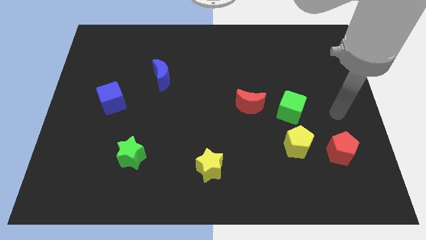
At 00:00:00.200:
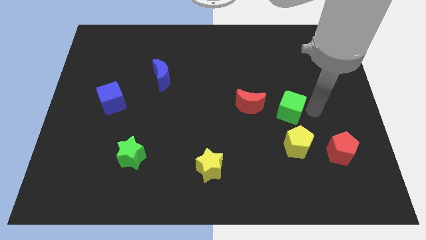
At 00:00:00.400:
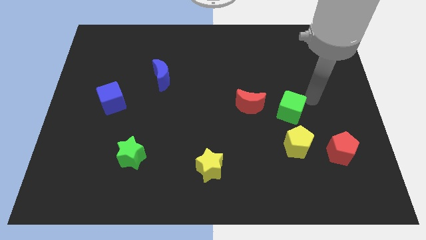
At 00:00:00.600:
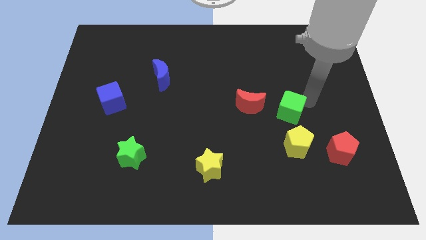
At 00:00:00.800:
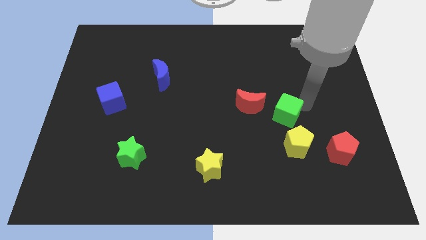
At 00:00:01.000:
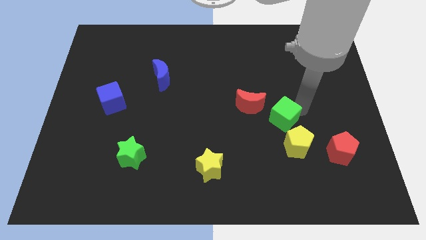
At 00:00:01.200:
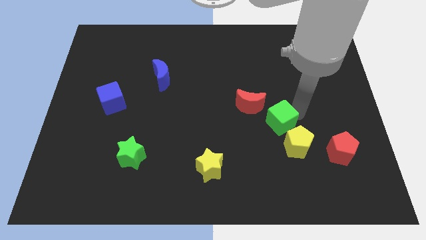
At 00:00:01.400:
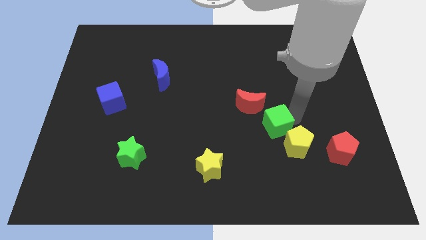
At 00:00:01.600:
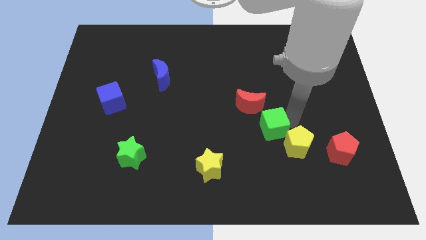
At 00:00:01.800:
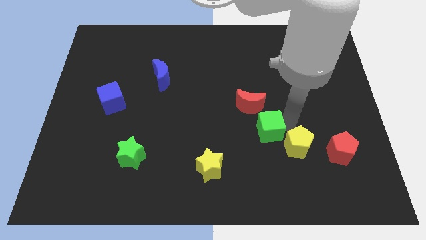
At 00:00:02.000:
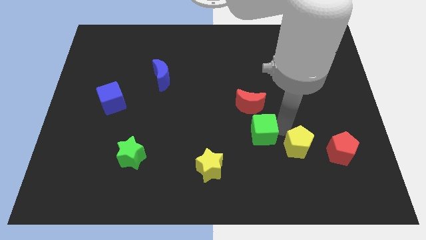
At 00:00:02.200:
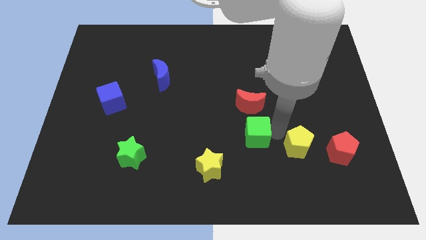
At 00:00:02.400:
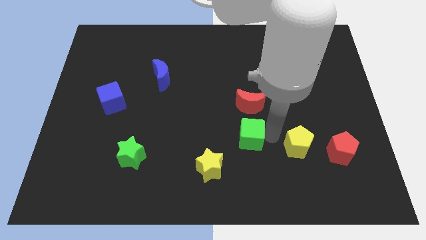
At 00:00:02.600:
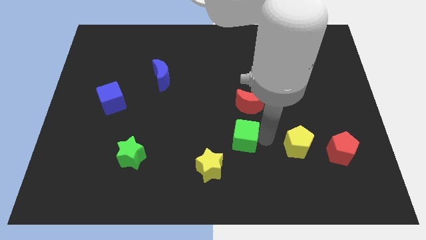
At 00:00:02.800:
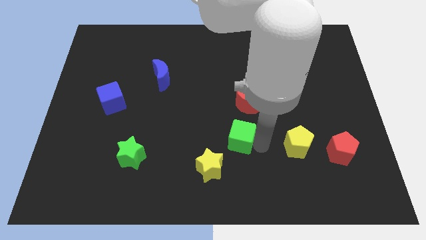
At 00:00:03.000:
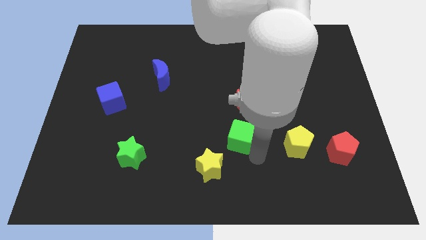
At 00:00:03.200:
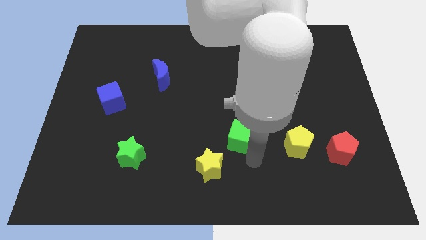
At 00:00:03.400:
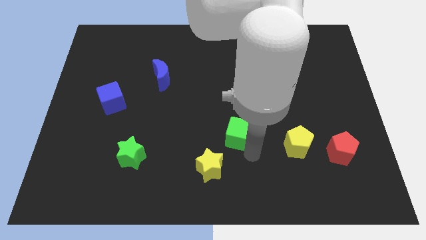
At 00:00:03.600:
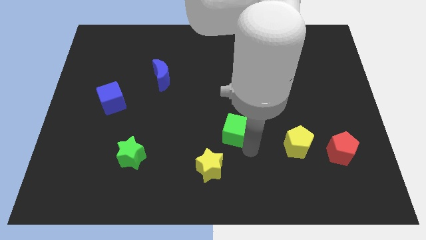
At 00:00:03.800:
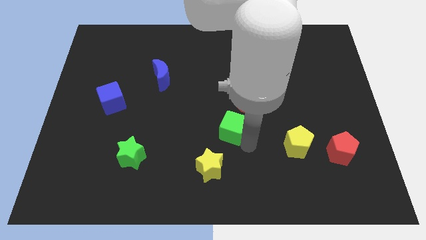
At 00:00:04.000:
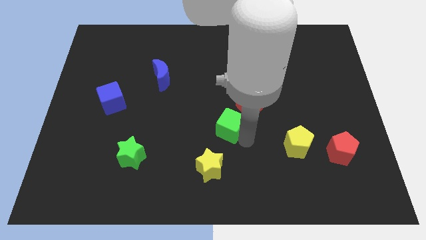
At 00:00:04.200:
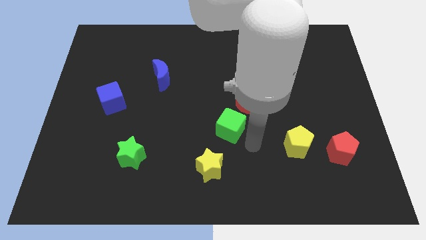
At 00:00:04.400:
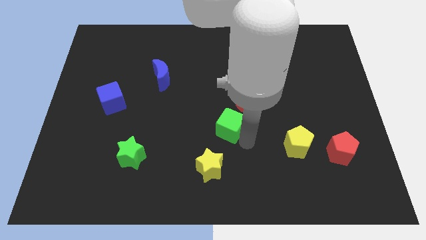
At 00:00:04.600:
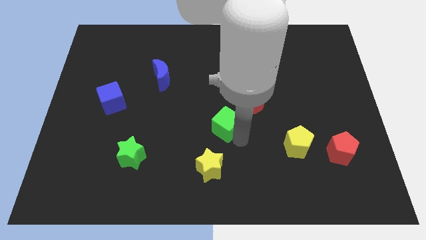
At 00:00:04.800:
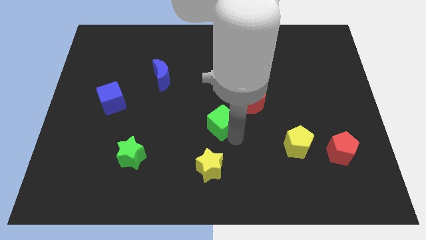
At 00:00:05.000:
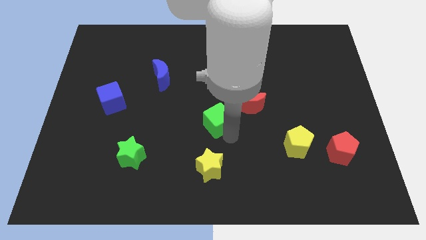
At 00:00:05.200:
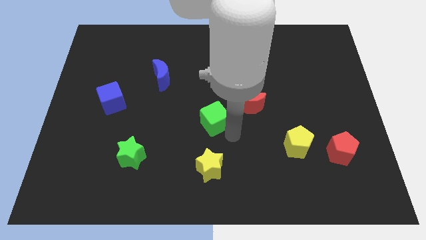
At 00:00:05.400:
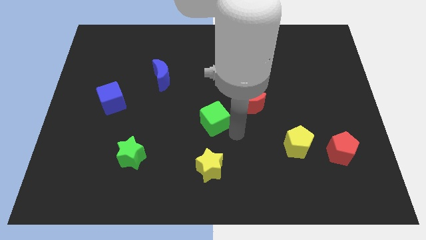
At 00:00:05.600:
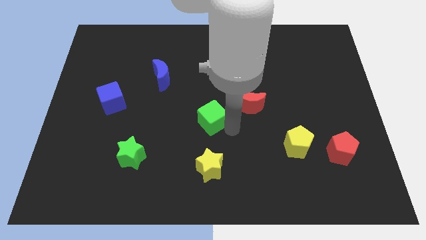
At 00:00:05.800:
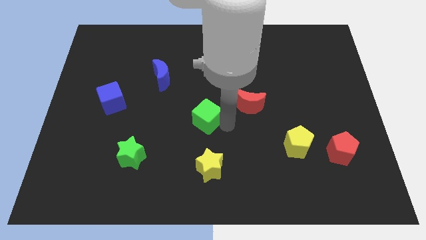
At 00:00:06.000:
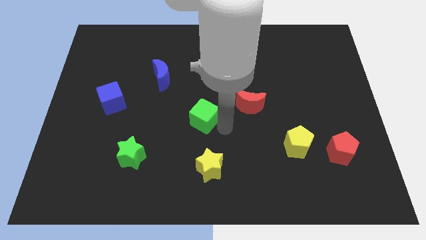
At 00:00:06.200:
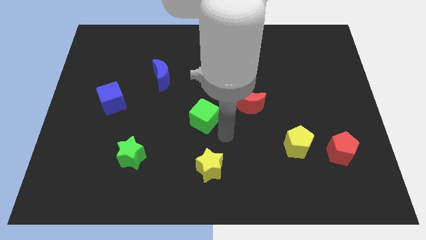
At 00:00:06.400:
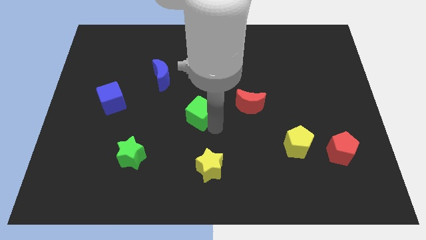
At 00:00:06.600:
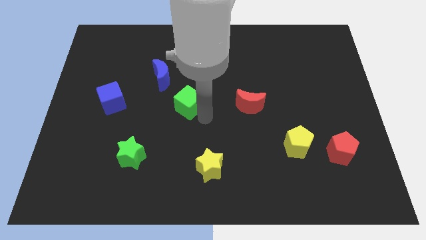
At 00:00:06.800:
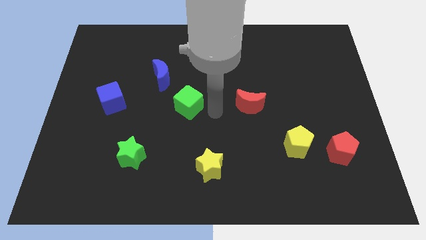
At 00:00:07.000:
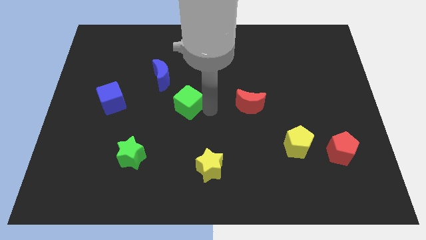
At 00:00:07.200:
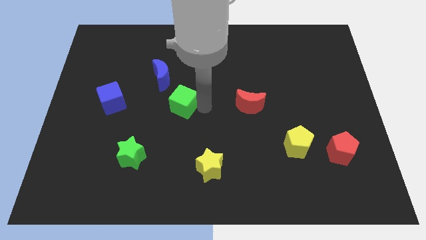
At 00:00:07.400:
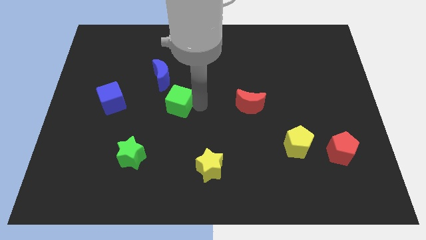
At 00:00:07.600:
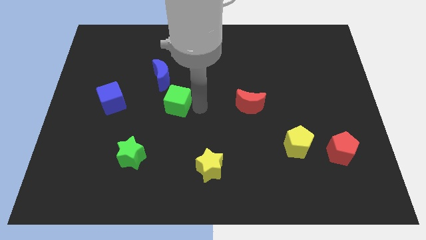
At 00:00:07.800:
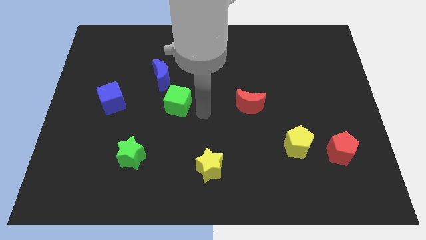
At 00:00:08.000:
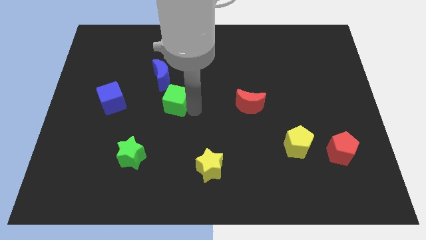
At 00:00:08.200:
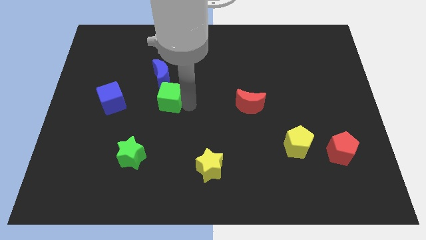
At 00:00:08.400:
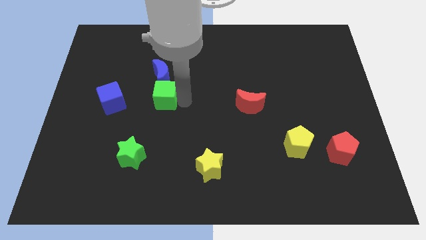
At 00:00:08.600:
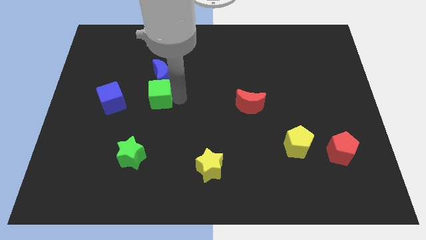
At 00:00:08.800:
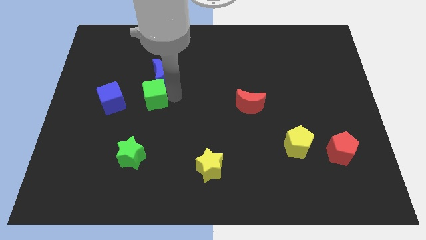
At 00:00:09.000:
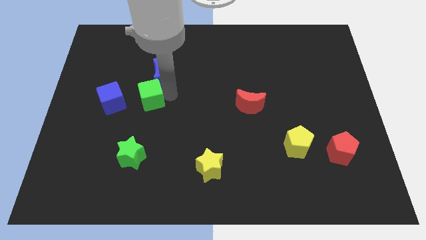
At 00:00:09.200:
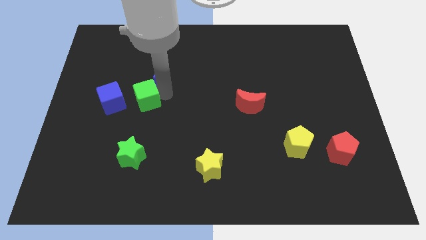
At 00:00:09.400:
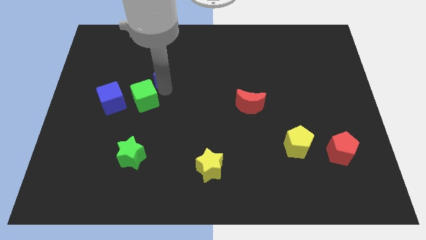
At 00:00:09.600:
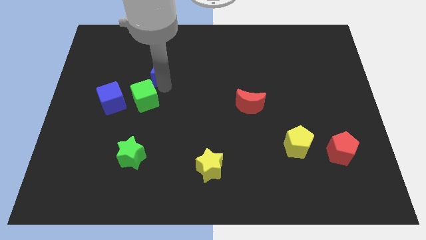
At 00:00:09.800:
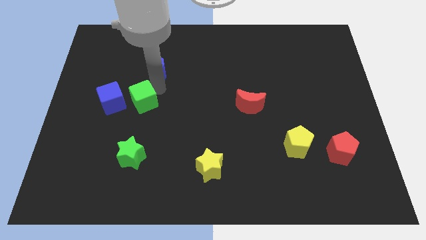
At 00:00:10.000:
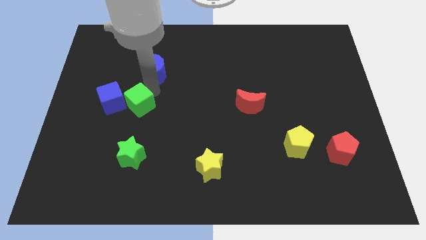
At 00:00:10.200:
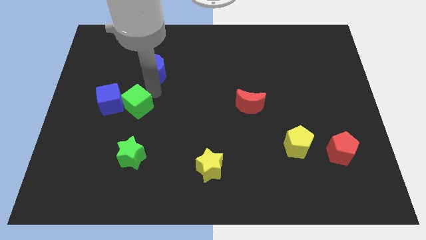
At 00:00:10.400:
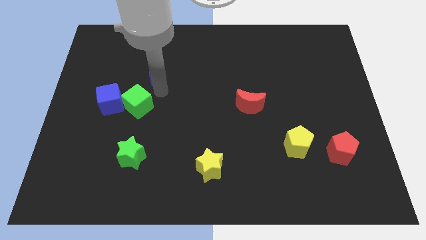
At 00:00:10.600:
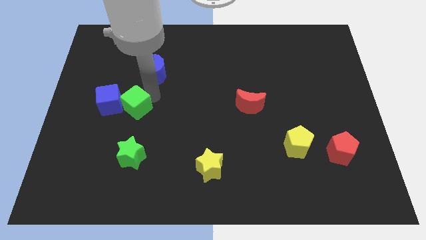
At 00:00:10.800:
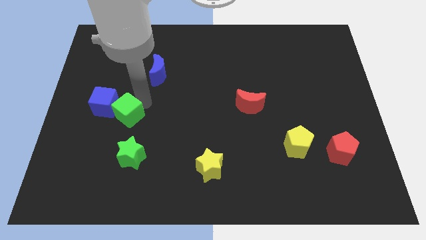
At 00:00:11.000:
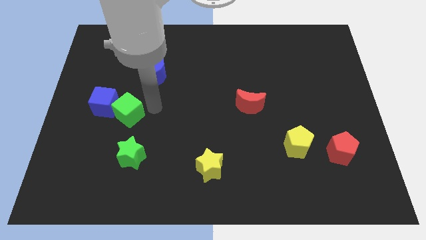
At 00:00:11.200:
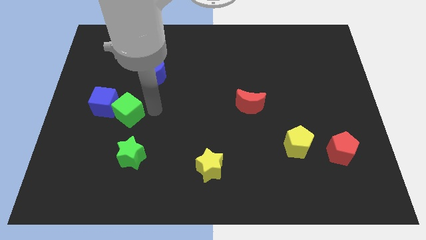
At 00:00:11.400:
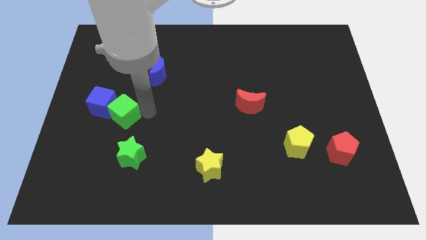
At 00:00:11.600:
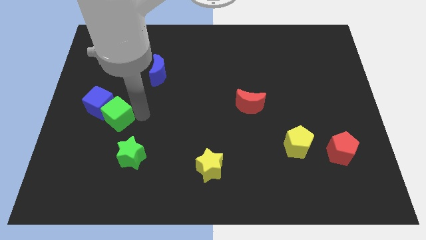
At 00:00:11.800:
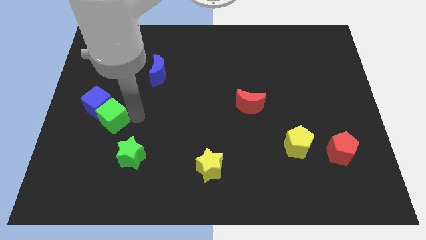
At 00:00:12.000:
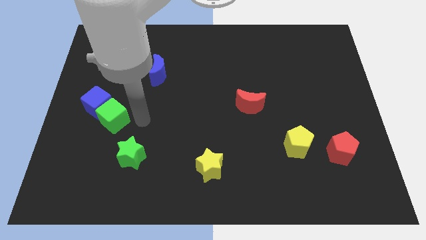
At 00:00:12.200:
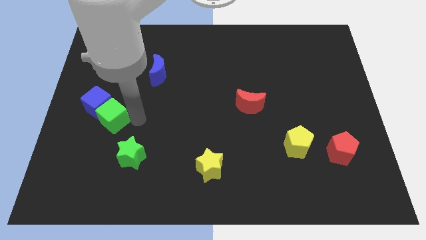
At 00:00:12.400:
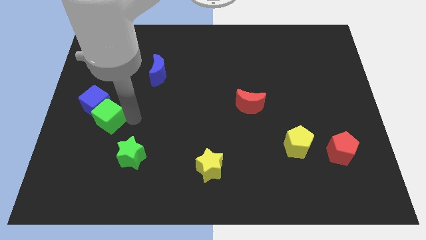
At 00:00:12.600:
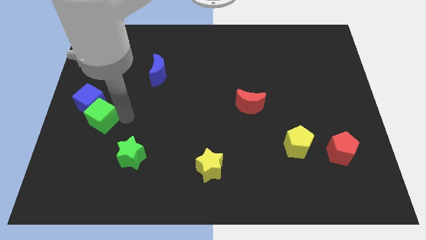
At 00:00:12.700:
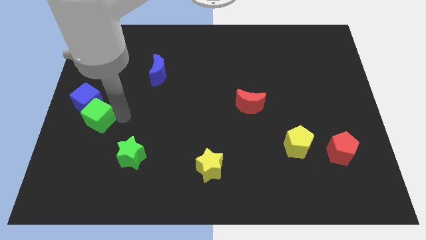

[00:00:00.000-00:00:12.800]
push the green cube to the center left

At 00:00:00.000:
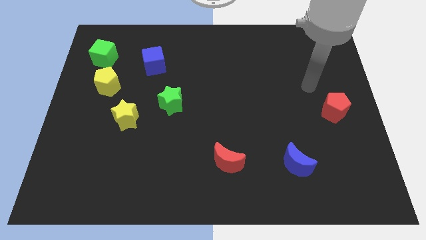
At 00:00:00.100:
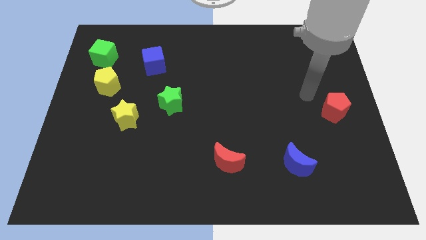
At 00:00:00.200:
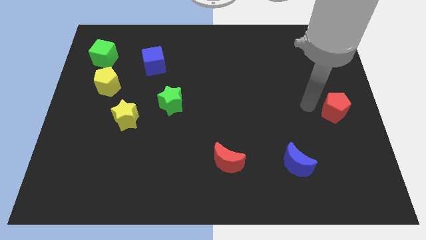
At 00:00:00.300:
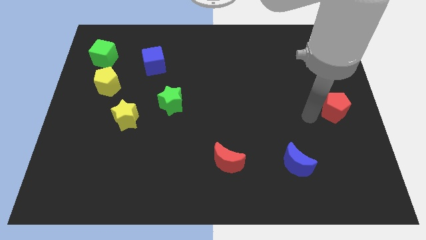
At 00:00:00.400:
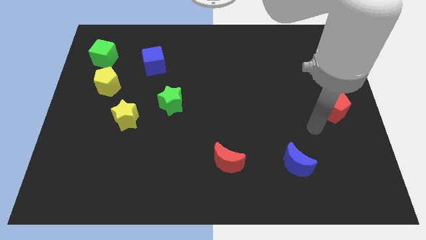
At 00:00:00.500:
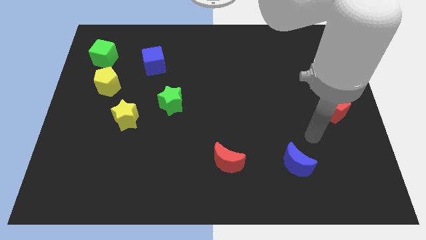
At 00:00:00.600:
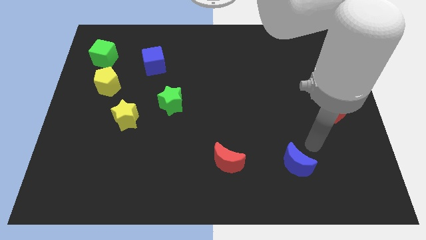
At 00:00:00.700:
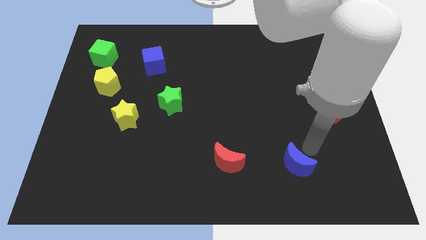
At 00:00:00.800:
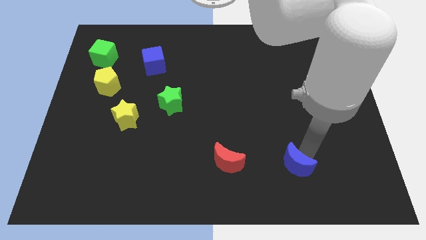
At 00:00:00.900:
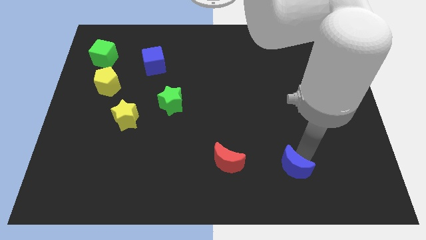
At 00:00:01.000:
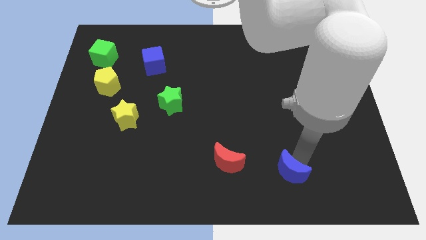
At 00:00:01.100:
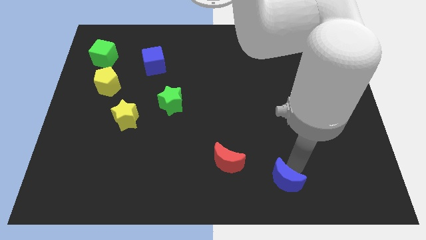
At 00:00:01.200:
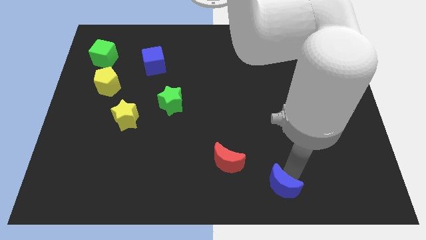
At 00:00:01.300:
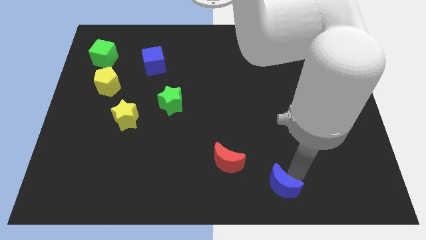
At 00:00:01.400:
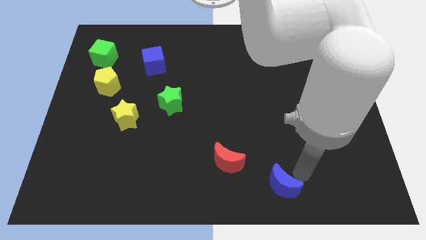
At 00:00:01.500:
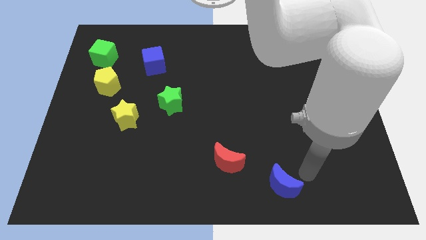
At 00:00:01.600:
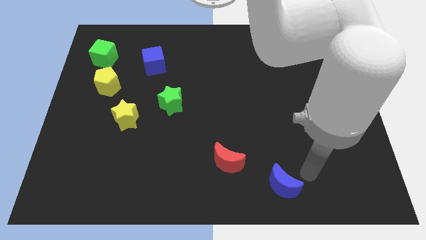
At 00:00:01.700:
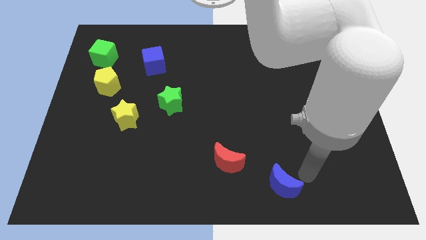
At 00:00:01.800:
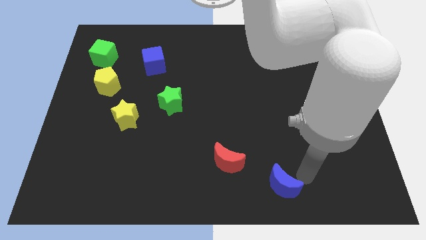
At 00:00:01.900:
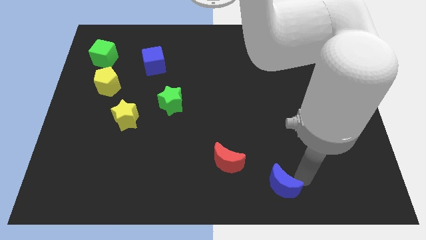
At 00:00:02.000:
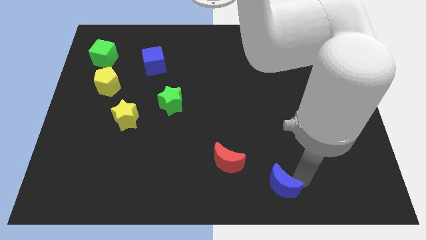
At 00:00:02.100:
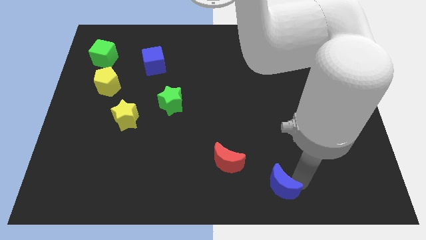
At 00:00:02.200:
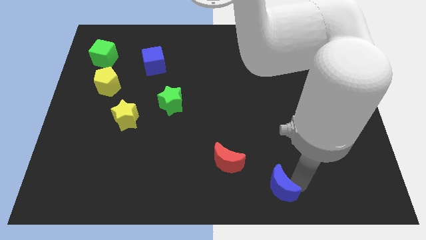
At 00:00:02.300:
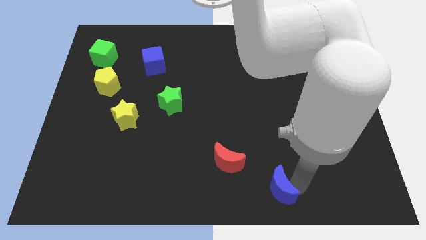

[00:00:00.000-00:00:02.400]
slide the blue moon to the bottom
